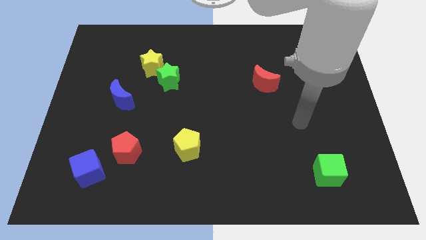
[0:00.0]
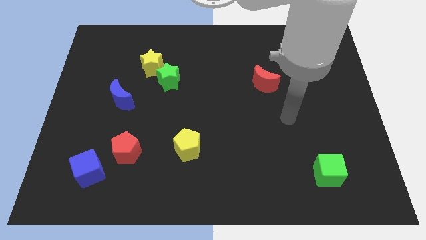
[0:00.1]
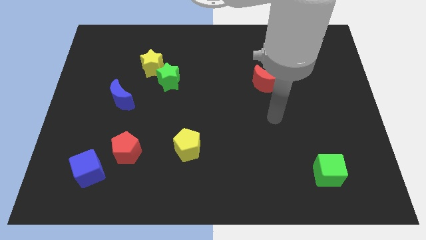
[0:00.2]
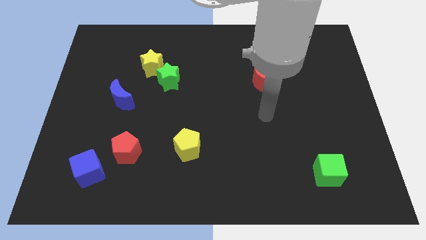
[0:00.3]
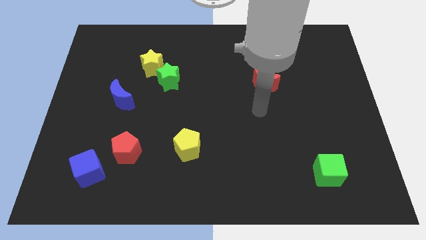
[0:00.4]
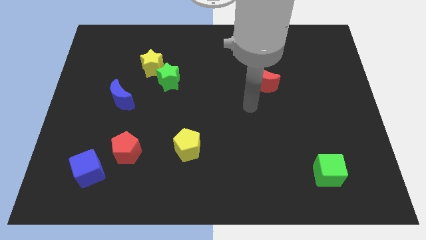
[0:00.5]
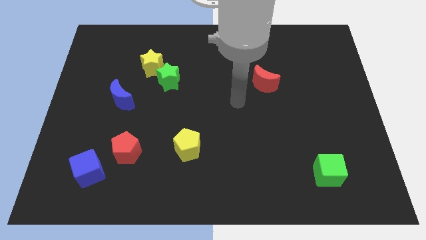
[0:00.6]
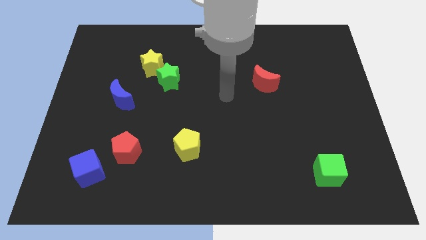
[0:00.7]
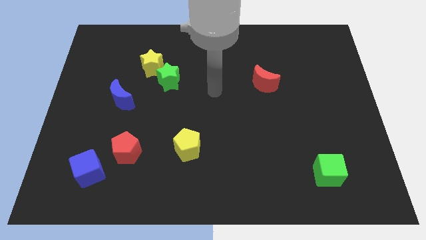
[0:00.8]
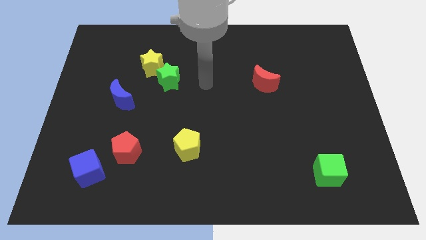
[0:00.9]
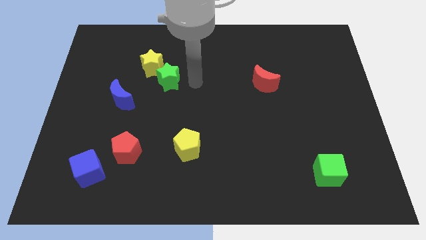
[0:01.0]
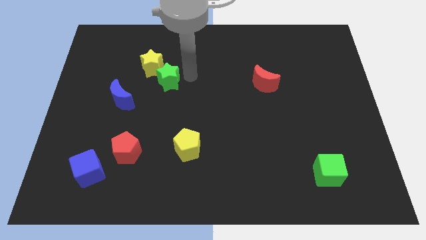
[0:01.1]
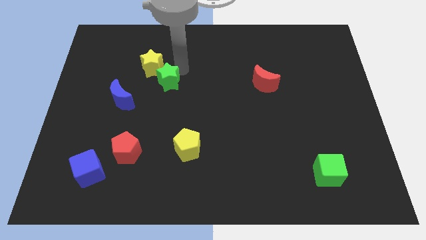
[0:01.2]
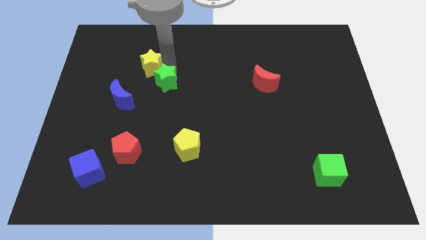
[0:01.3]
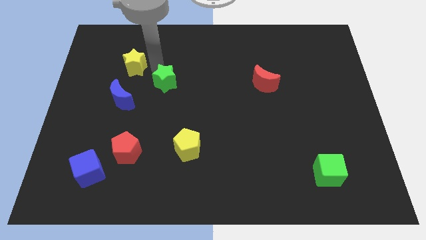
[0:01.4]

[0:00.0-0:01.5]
separate the green star from the yellow star

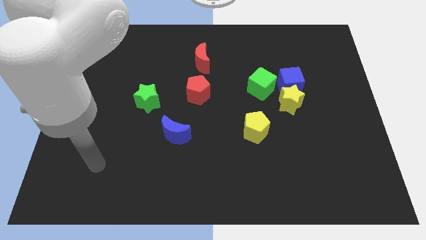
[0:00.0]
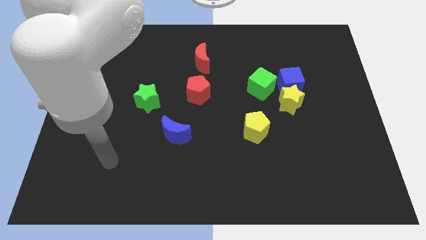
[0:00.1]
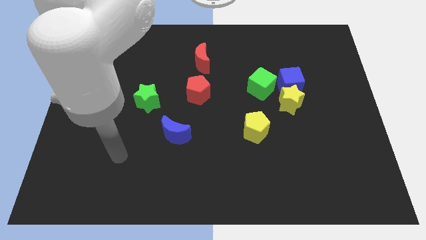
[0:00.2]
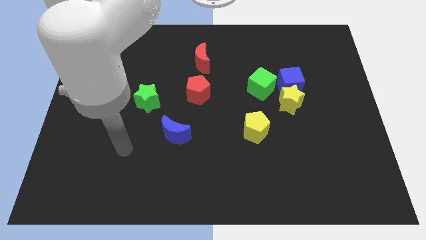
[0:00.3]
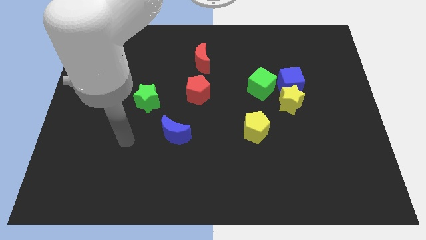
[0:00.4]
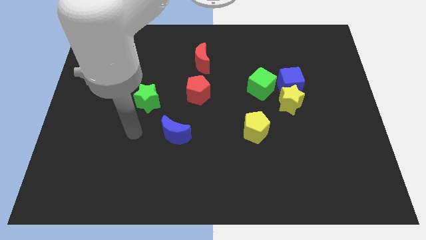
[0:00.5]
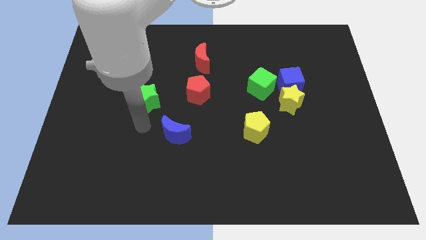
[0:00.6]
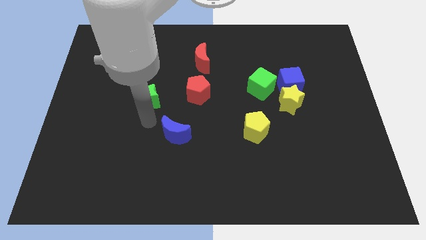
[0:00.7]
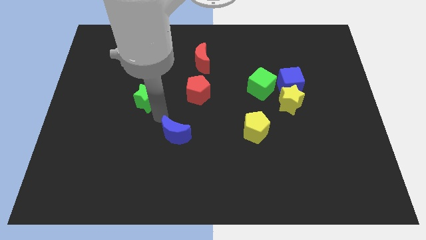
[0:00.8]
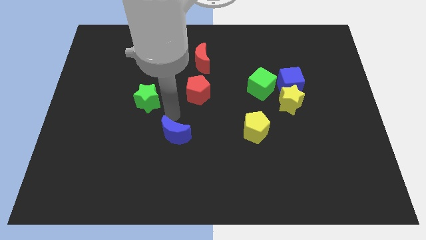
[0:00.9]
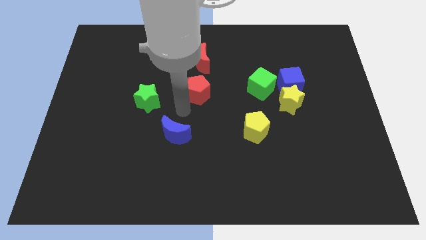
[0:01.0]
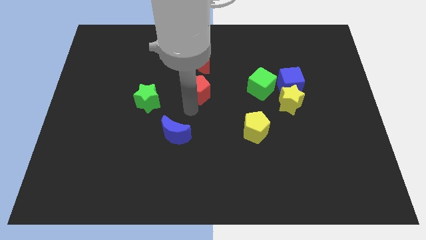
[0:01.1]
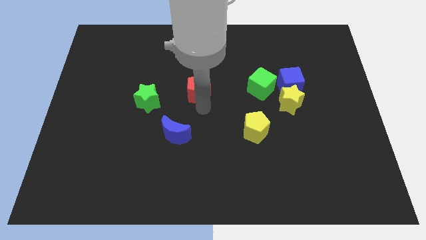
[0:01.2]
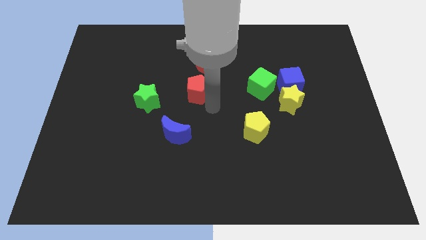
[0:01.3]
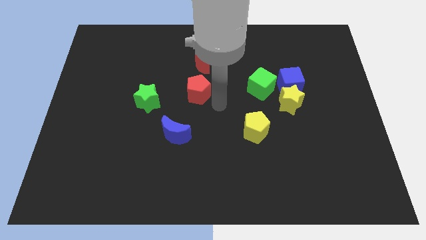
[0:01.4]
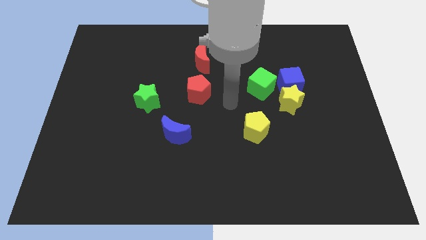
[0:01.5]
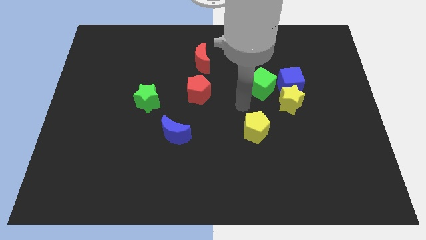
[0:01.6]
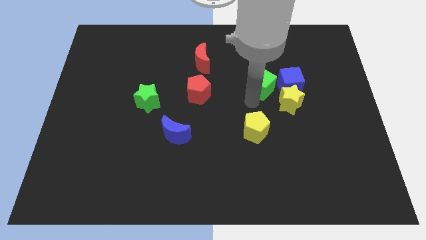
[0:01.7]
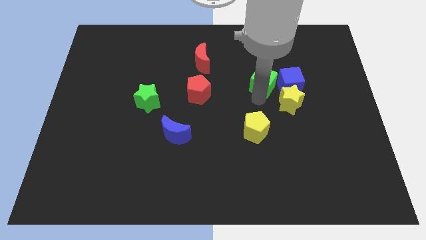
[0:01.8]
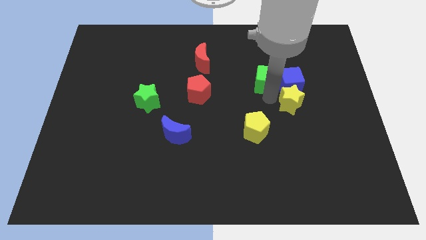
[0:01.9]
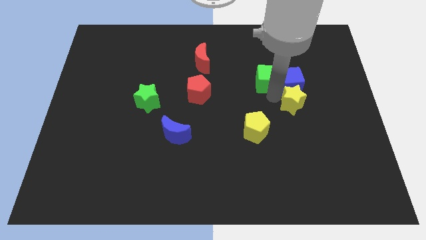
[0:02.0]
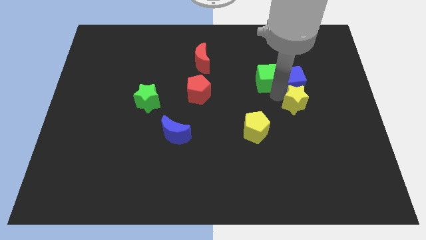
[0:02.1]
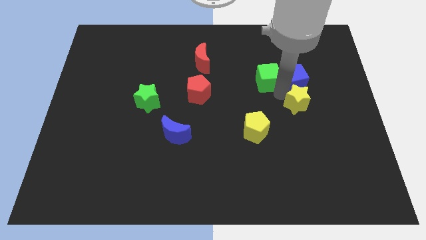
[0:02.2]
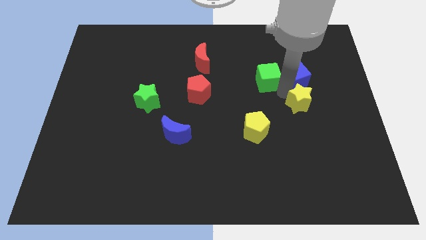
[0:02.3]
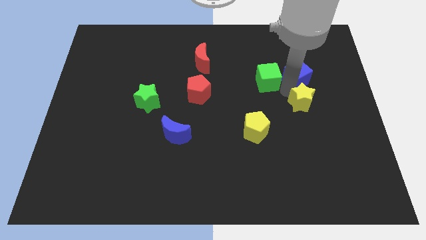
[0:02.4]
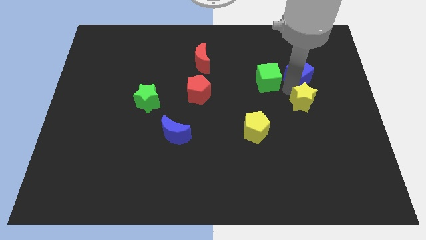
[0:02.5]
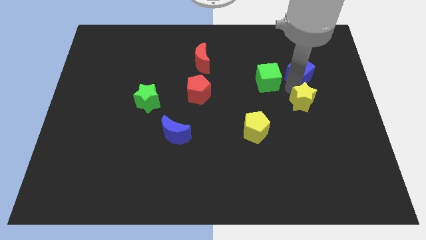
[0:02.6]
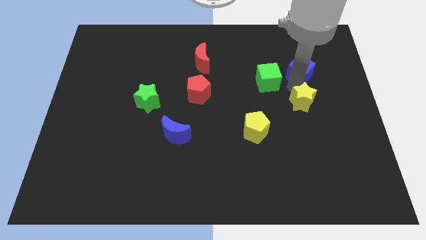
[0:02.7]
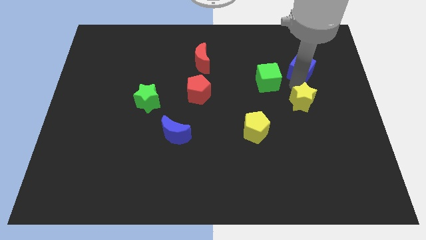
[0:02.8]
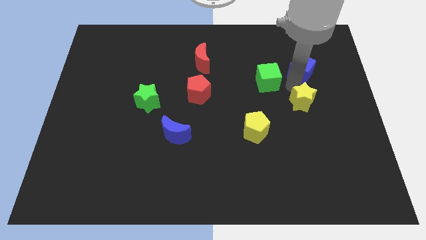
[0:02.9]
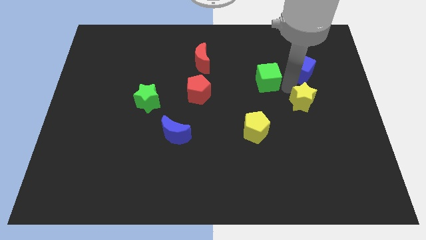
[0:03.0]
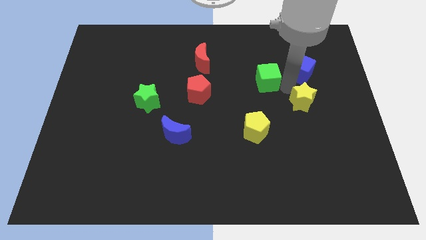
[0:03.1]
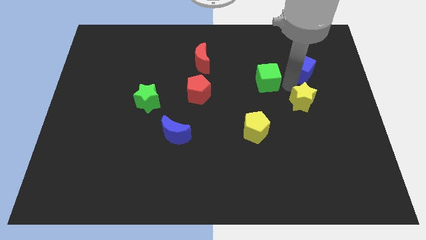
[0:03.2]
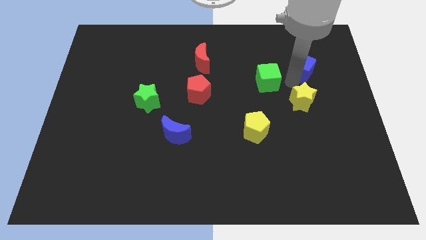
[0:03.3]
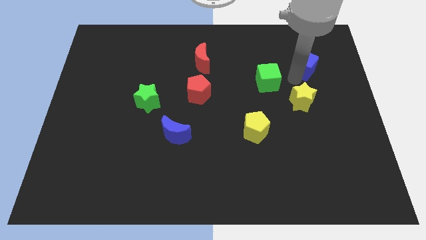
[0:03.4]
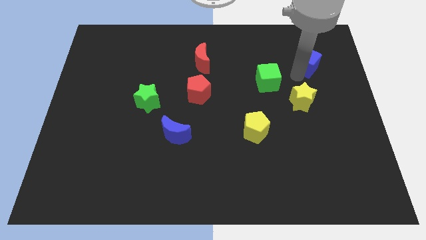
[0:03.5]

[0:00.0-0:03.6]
separate the blue cube from the yellow star and green cube

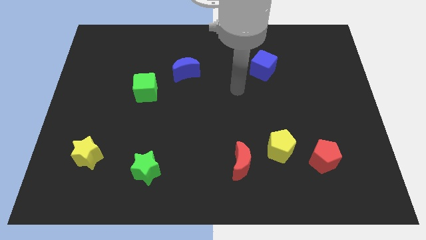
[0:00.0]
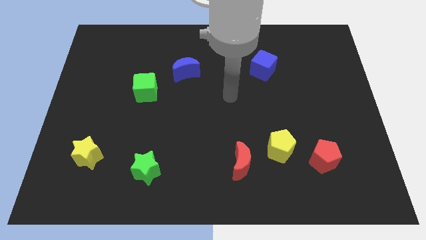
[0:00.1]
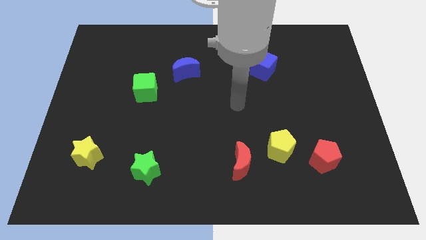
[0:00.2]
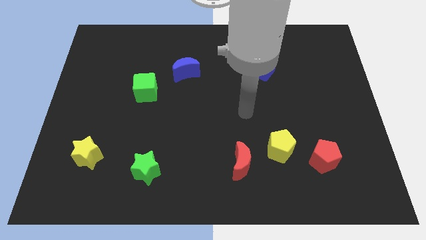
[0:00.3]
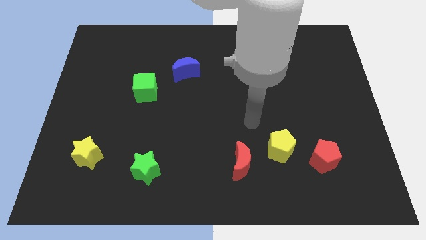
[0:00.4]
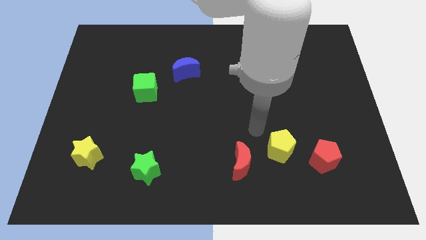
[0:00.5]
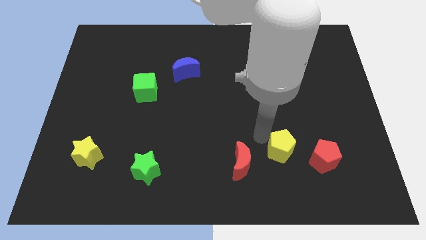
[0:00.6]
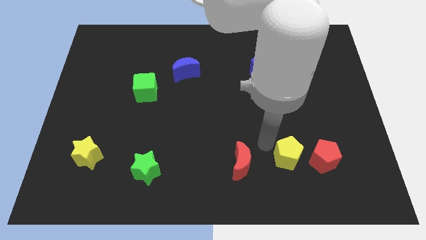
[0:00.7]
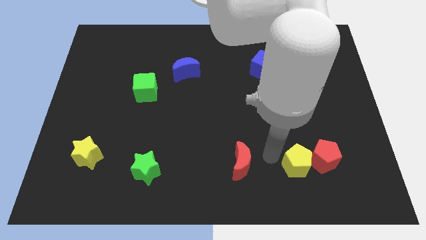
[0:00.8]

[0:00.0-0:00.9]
move the red moon away from the yellow pentagon

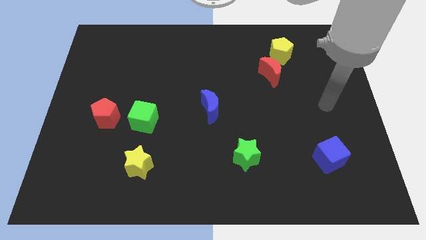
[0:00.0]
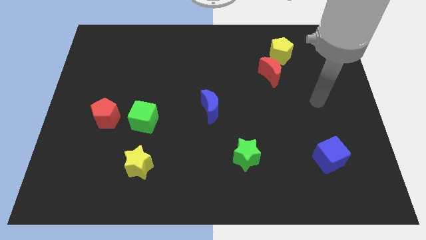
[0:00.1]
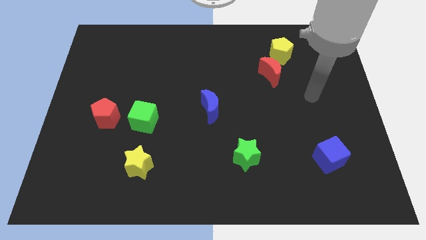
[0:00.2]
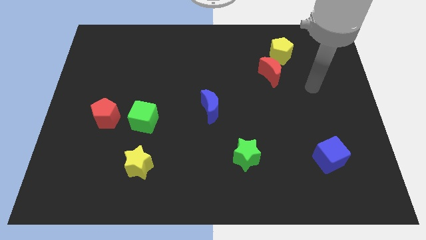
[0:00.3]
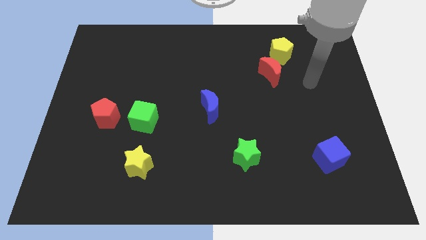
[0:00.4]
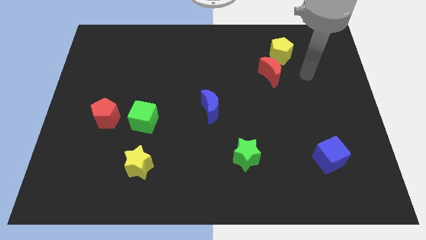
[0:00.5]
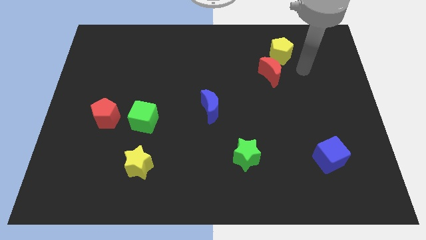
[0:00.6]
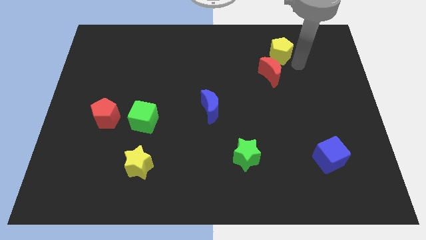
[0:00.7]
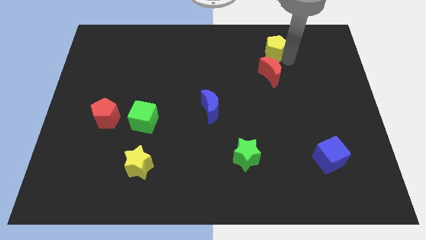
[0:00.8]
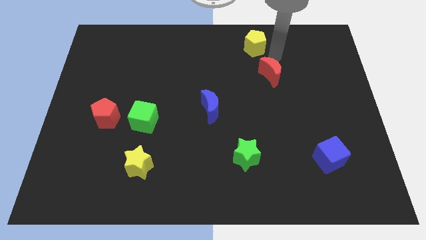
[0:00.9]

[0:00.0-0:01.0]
separate the red moon from the yellow pentagon

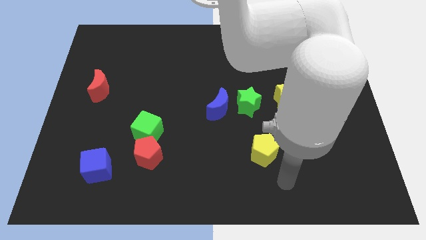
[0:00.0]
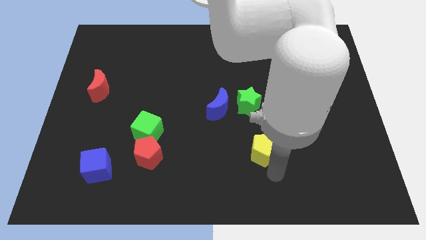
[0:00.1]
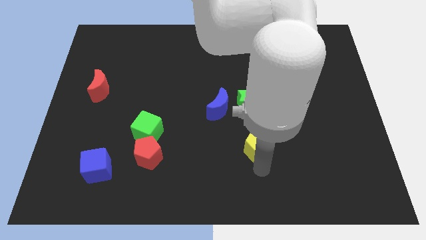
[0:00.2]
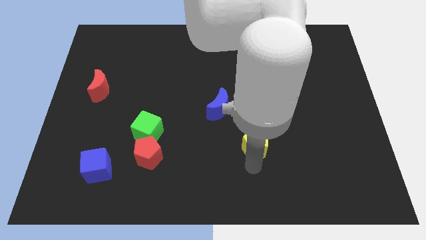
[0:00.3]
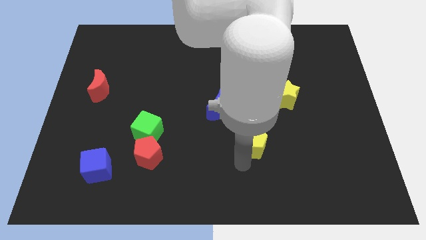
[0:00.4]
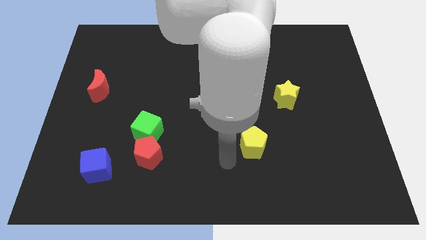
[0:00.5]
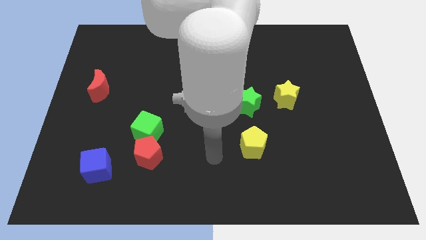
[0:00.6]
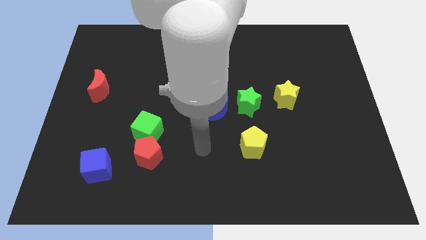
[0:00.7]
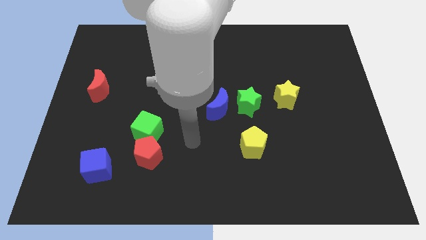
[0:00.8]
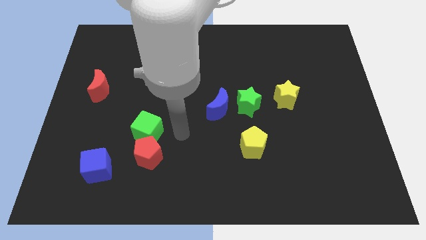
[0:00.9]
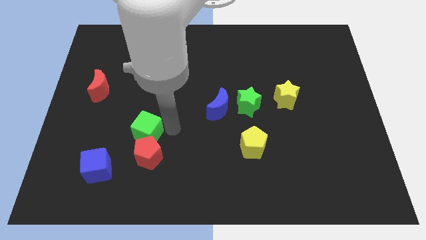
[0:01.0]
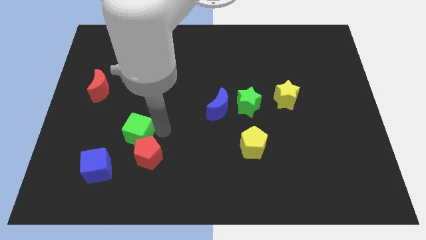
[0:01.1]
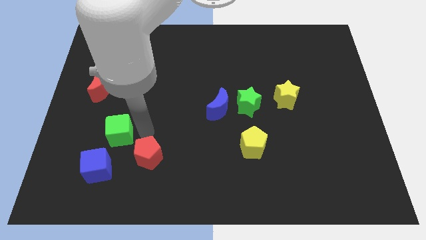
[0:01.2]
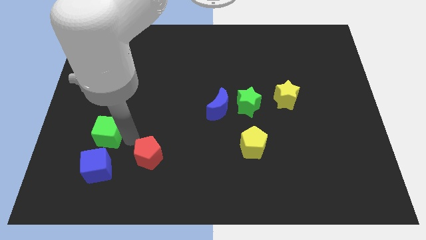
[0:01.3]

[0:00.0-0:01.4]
separate the red pentagon from the green cube

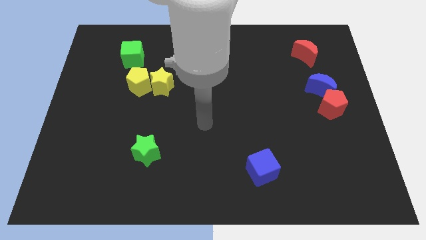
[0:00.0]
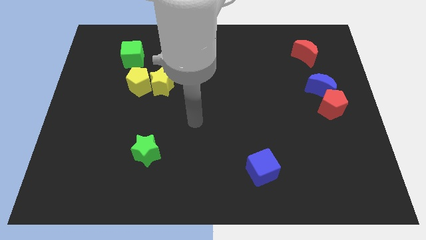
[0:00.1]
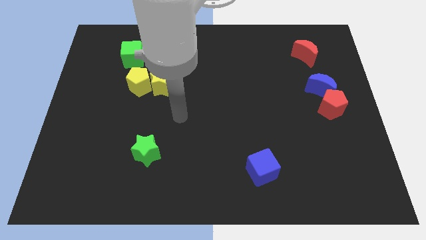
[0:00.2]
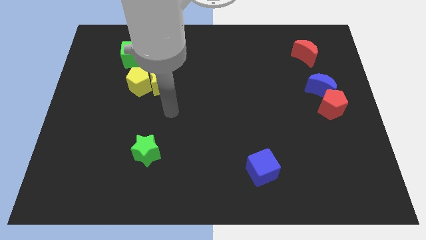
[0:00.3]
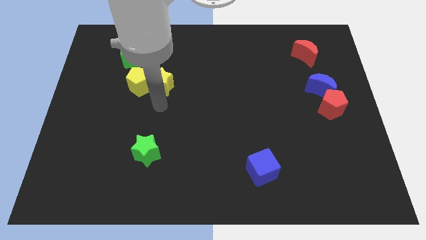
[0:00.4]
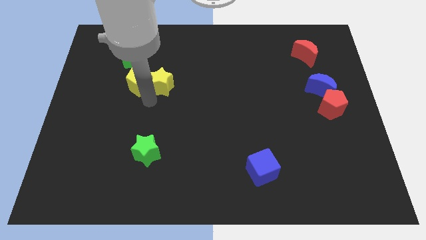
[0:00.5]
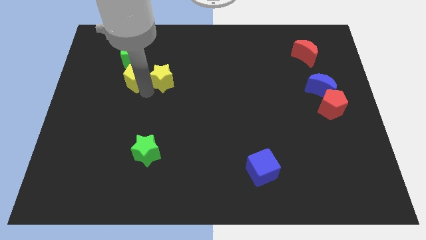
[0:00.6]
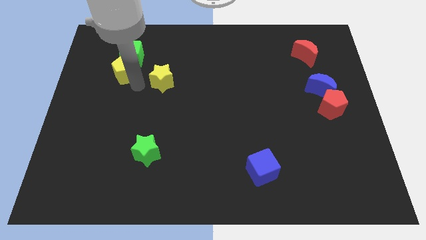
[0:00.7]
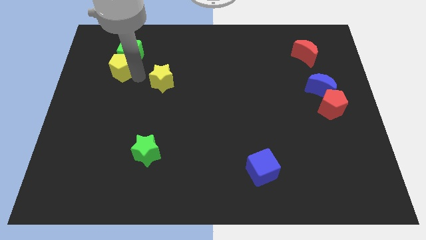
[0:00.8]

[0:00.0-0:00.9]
pull the yellow star apart from the yellow pentagon
